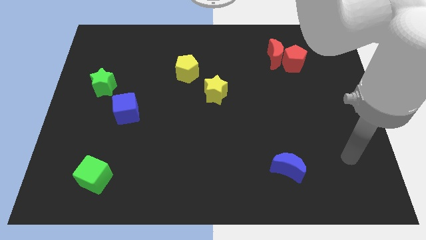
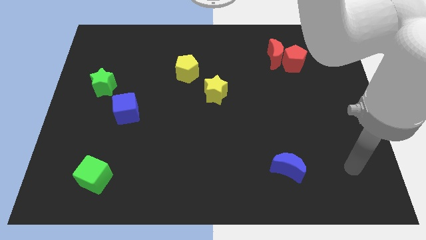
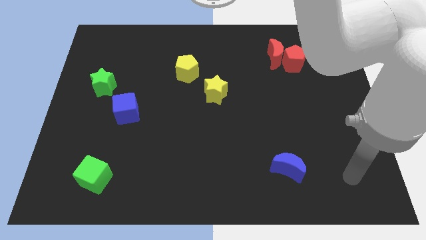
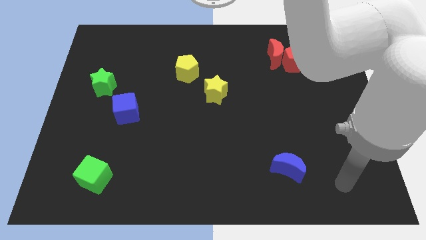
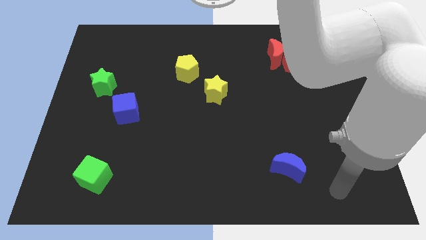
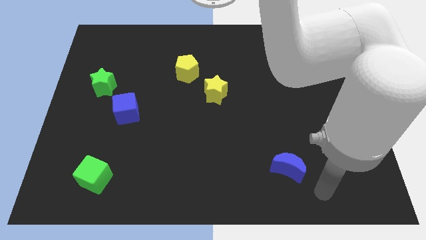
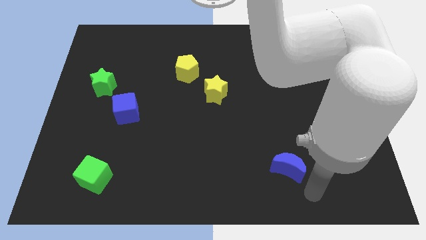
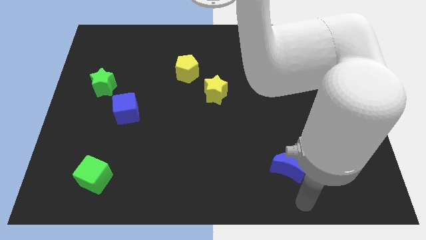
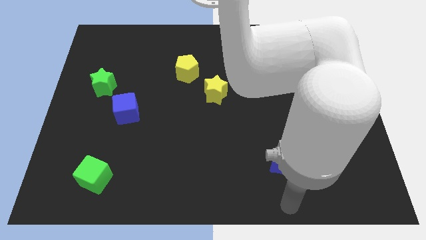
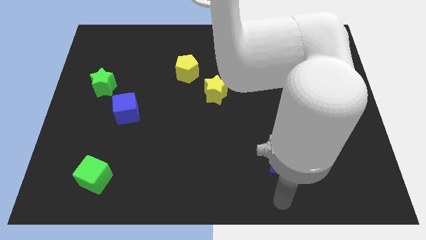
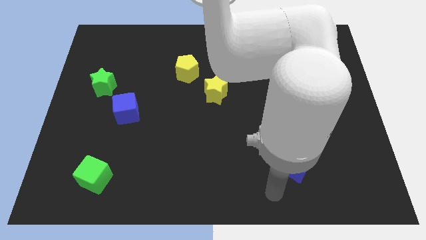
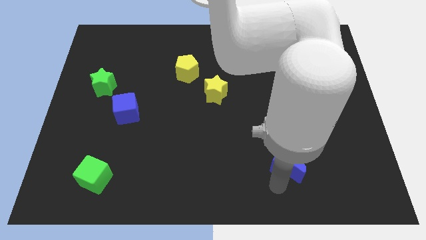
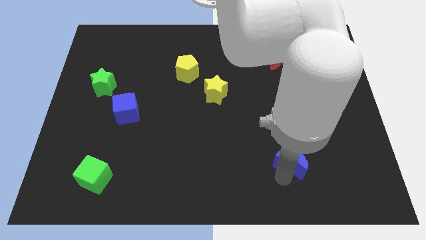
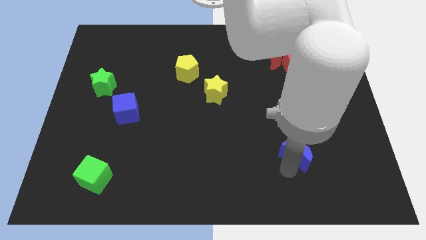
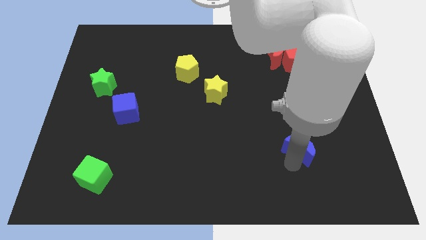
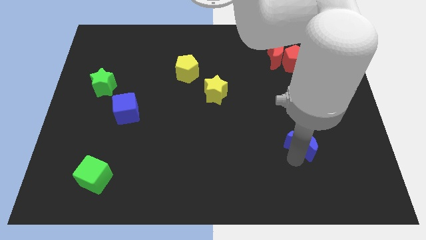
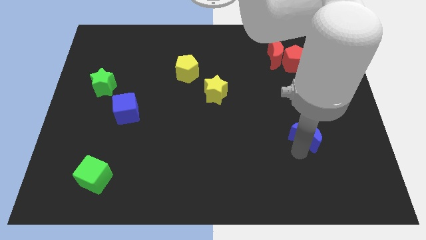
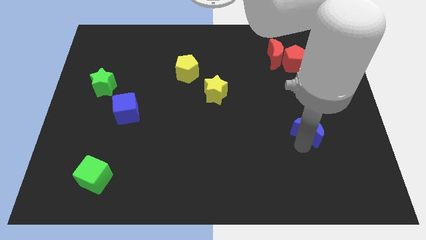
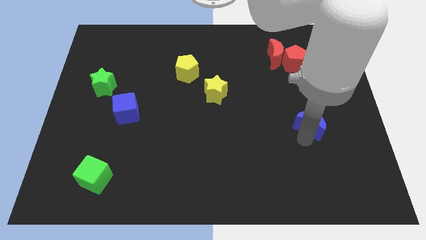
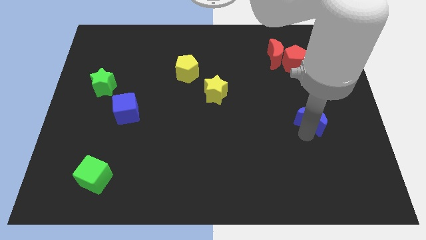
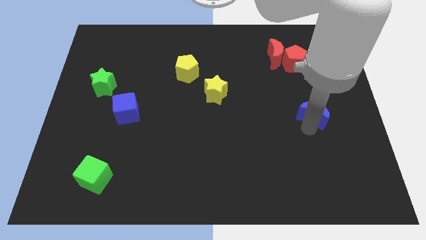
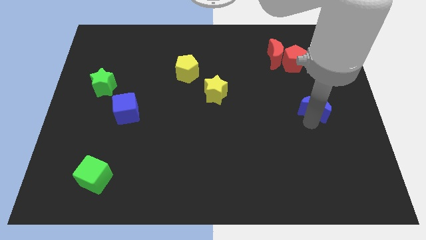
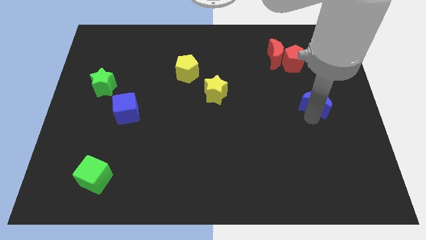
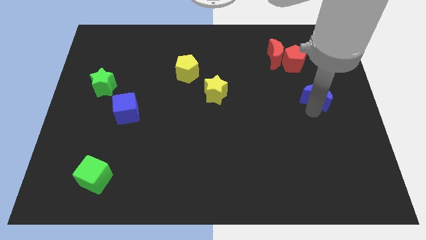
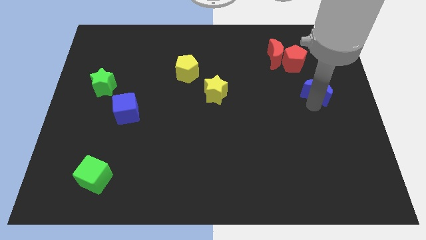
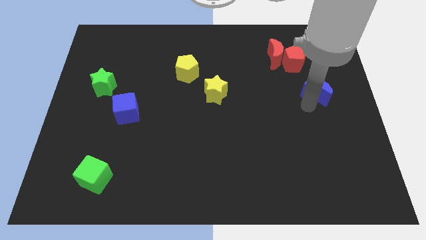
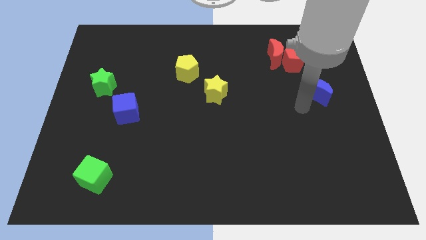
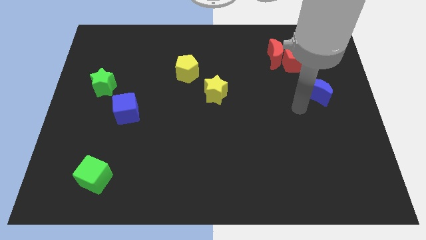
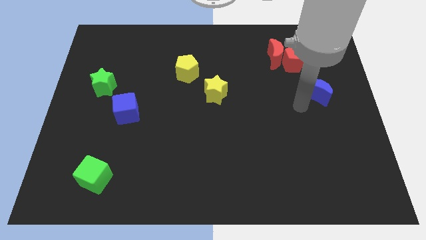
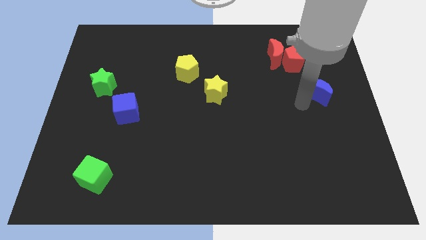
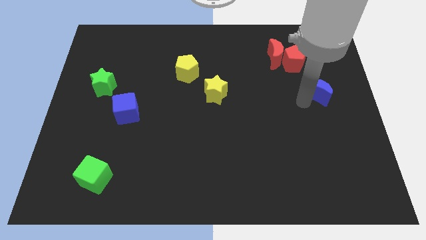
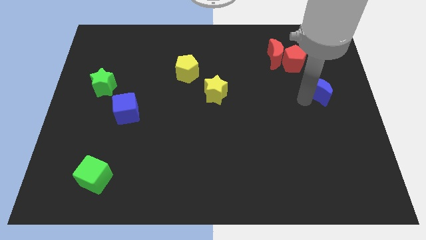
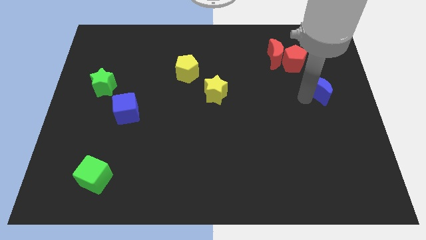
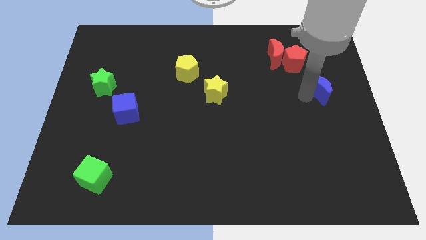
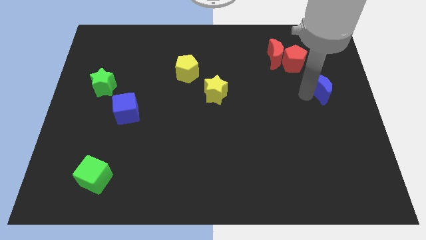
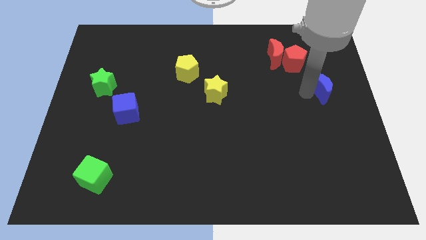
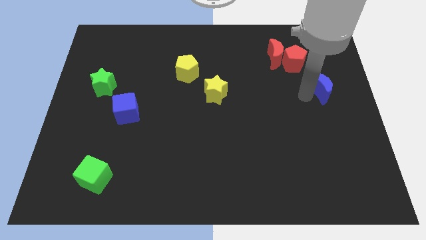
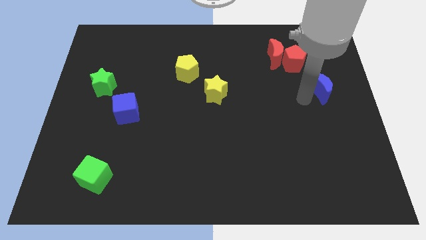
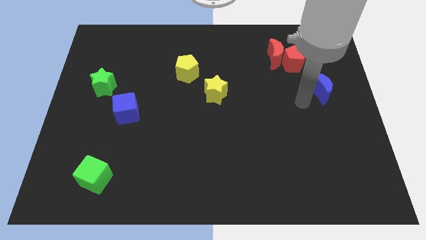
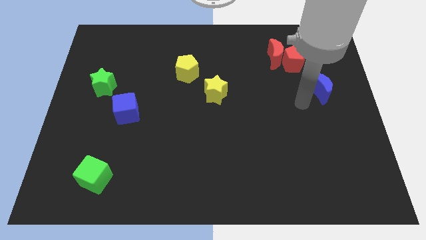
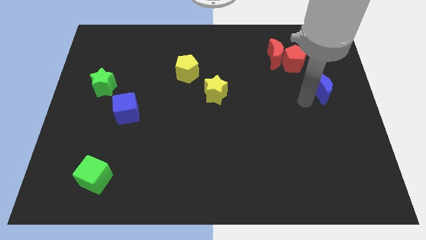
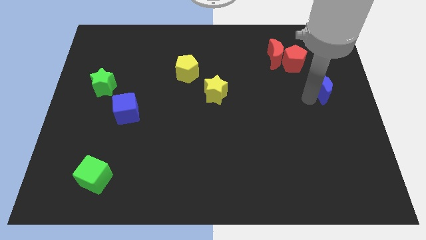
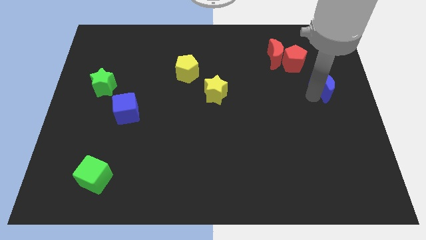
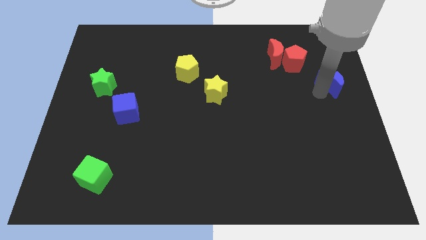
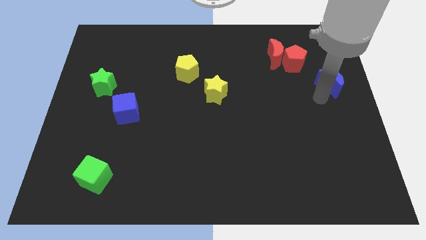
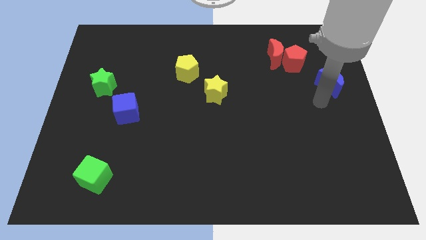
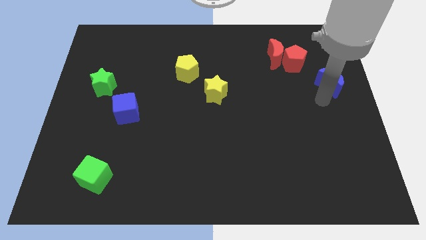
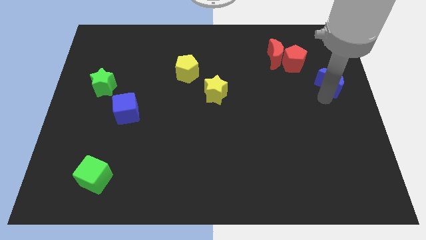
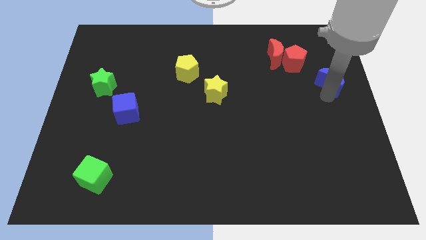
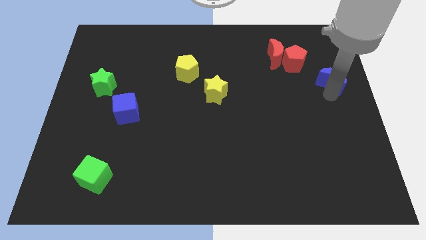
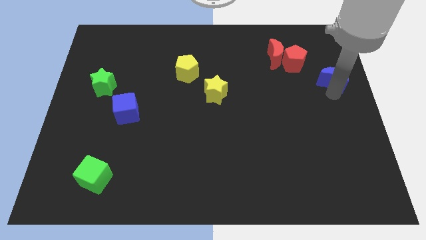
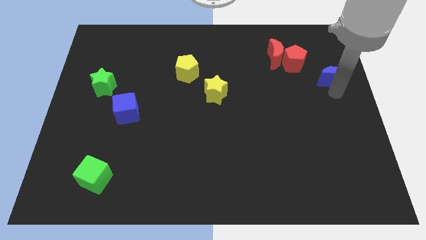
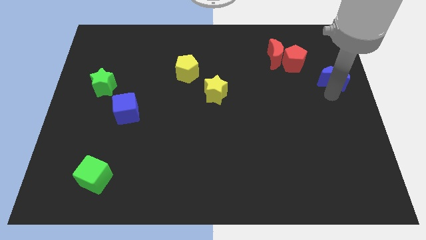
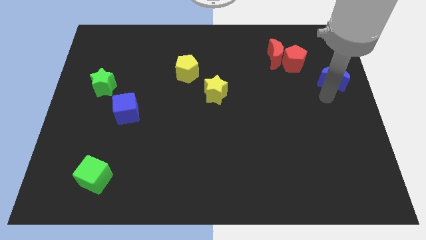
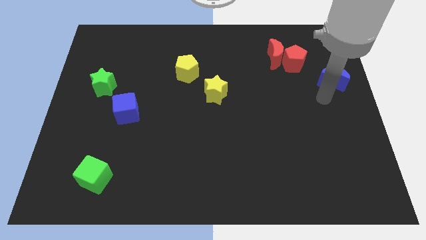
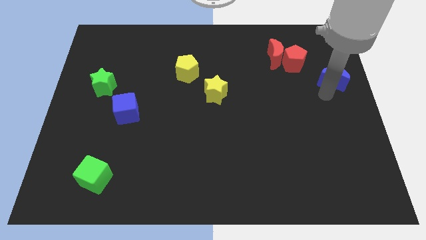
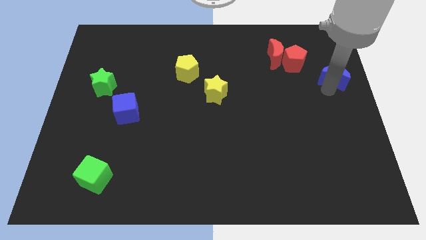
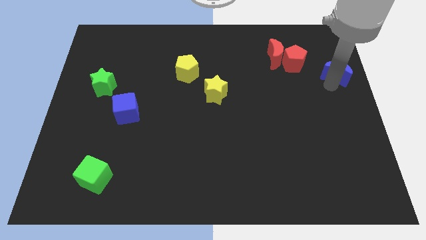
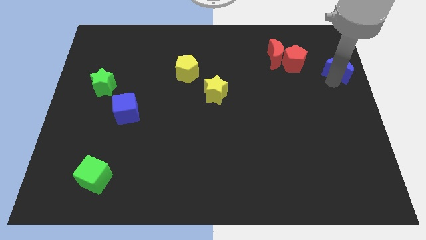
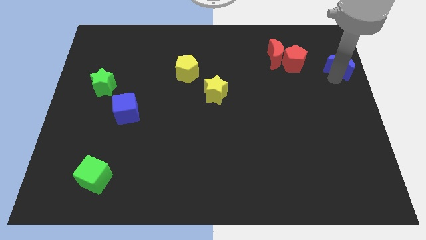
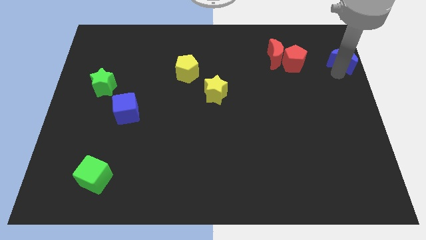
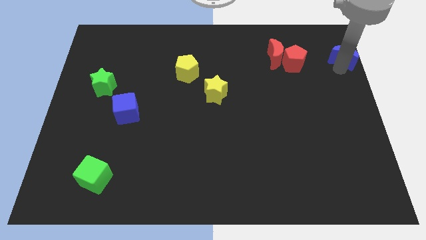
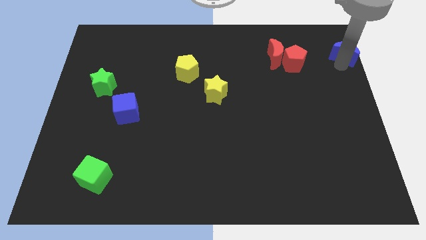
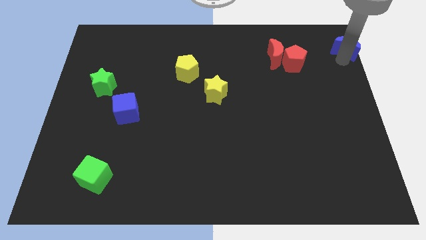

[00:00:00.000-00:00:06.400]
push the blue moon to the upper right corner

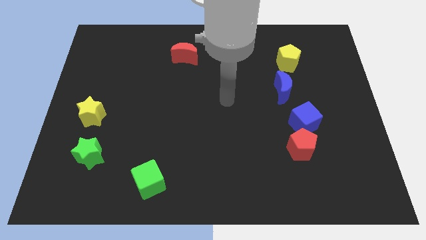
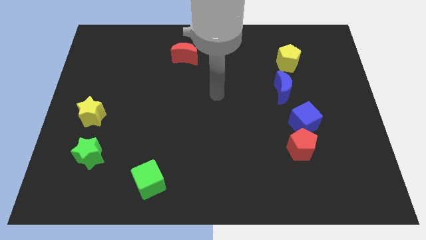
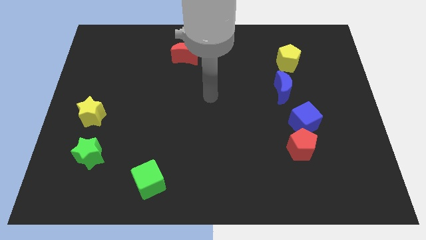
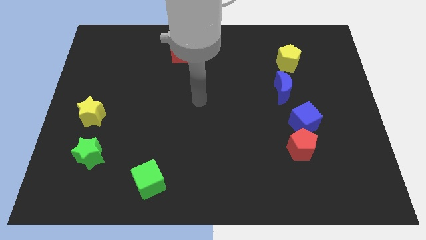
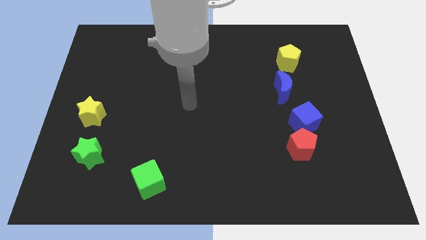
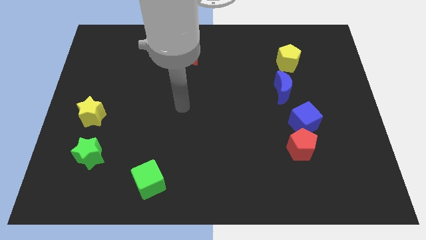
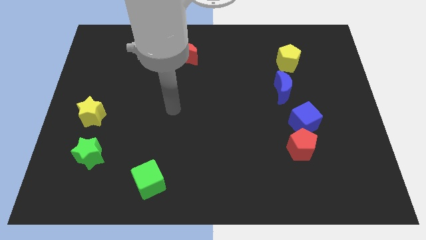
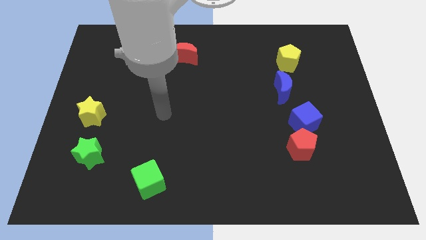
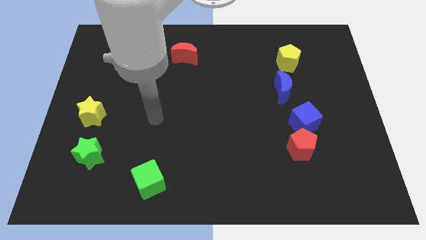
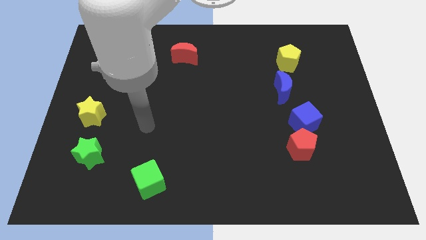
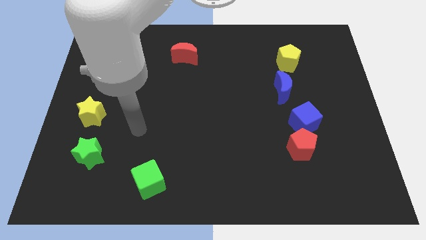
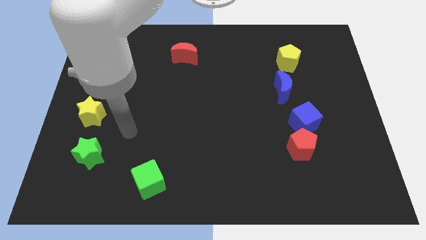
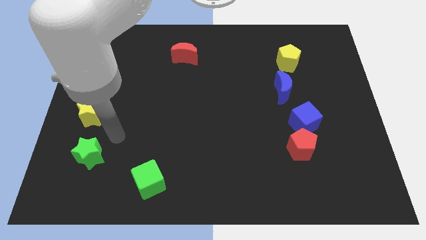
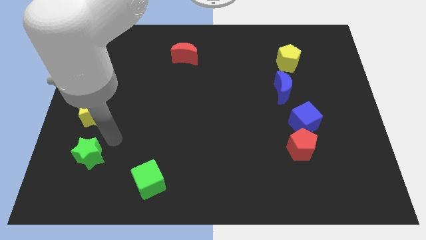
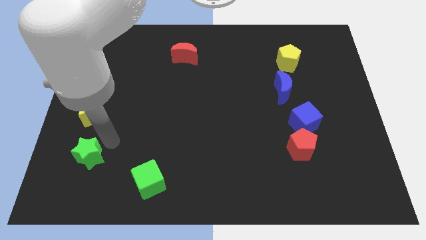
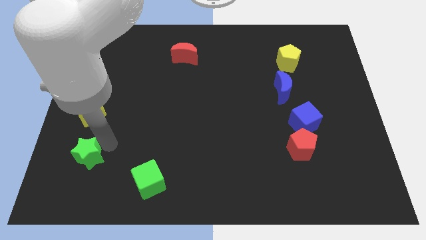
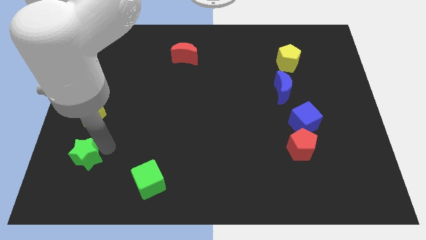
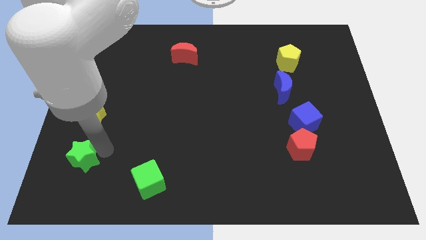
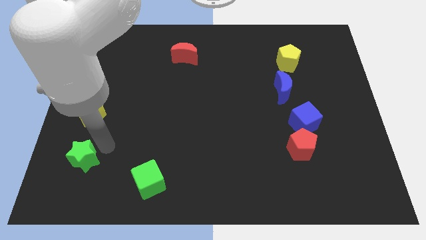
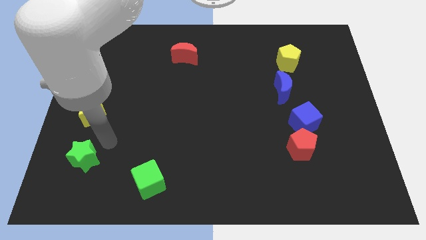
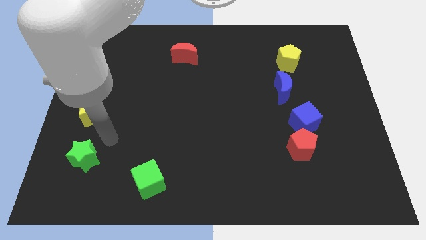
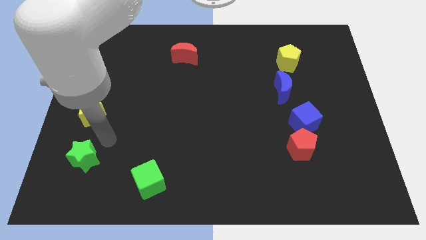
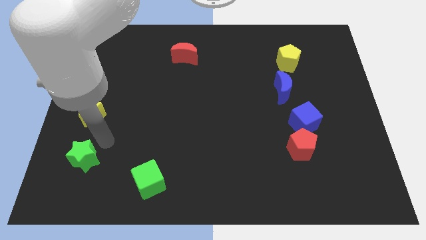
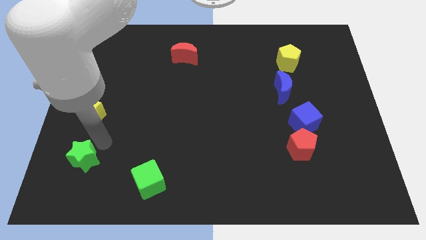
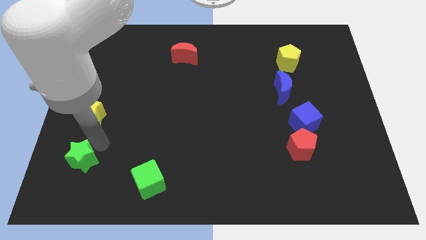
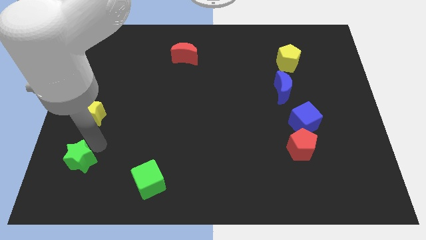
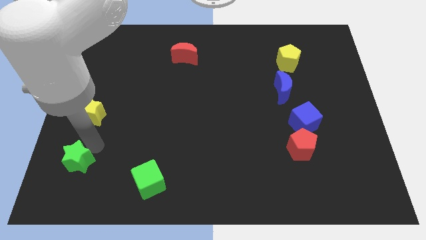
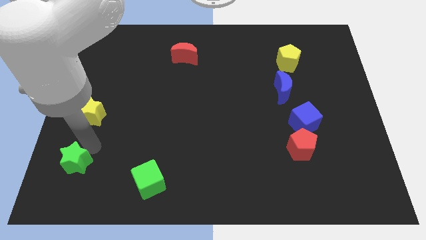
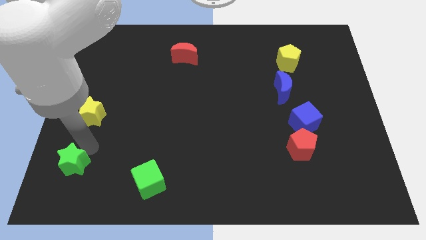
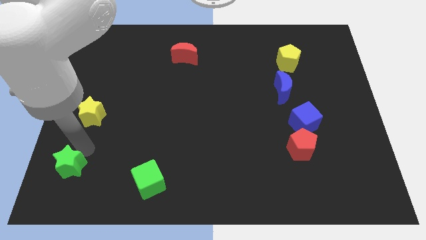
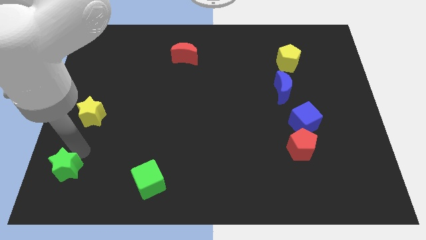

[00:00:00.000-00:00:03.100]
slide the green star to the bottom left corner
